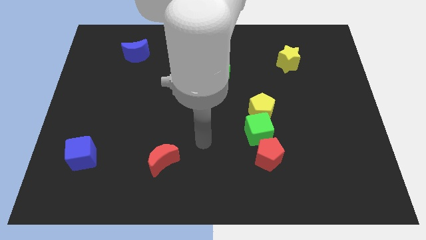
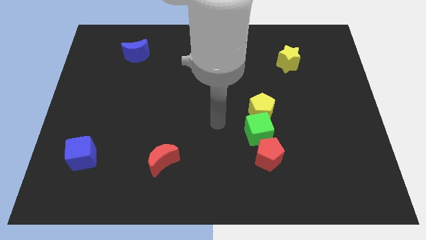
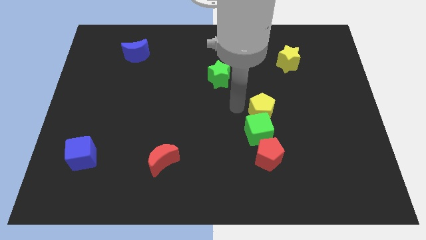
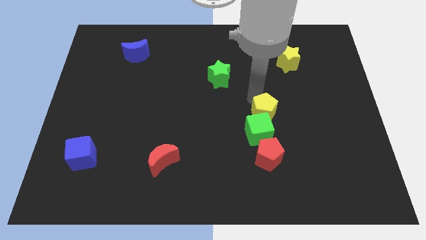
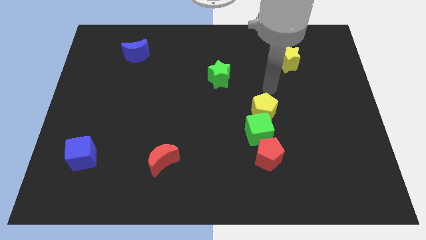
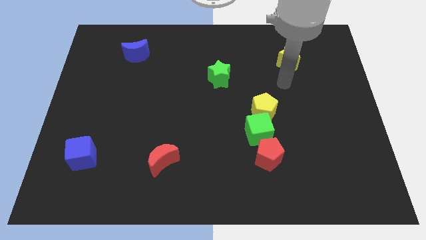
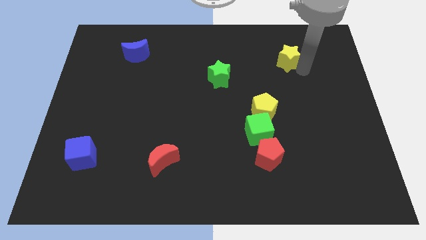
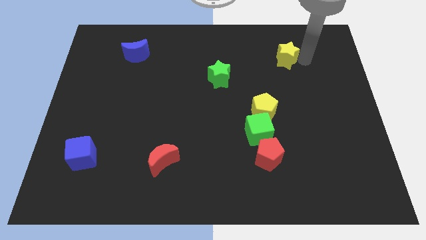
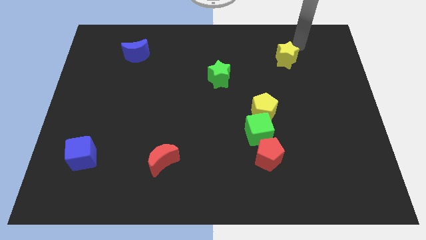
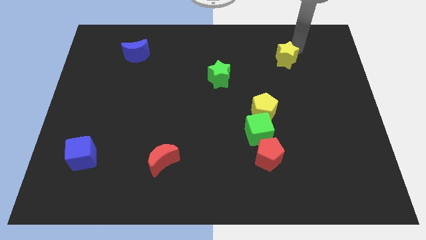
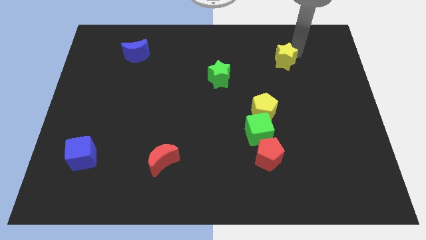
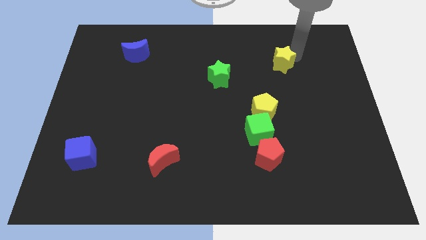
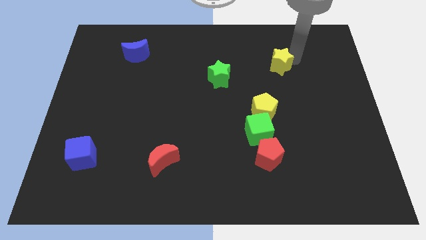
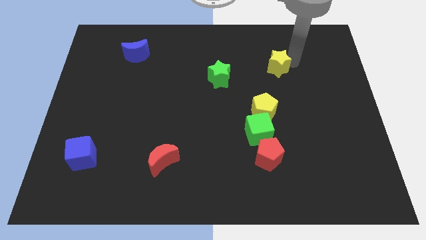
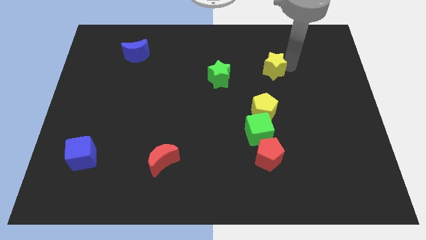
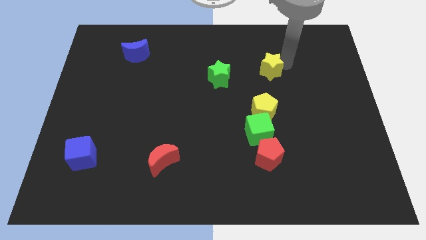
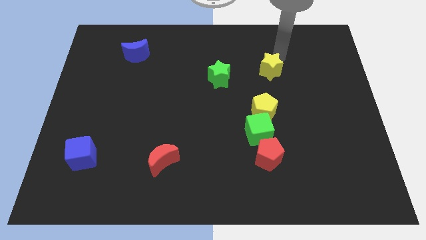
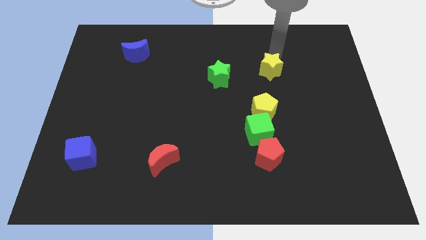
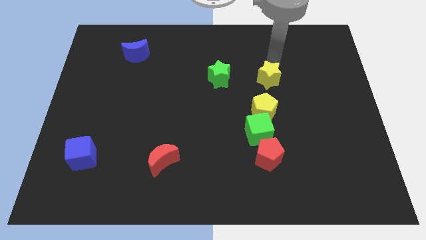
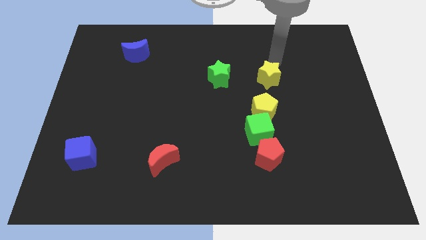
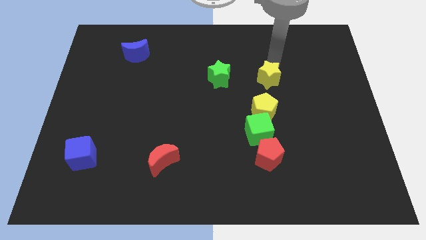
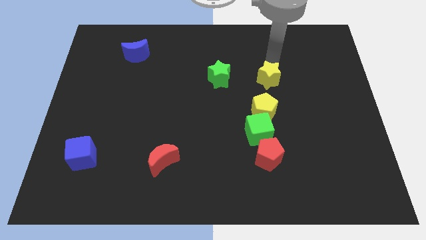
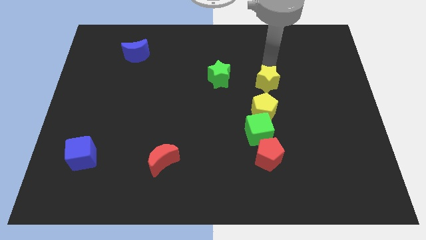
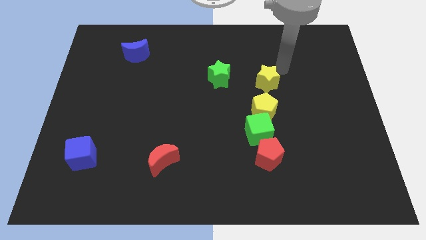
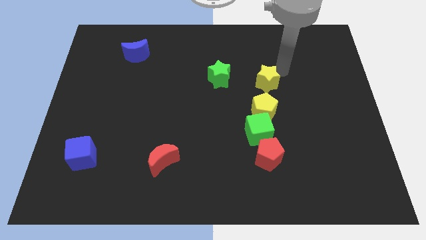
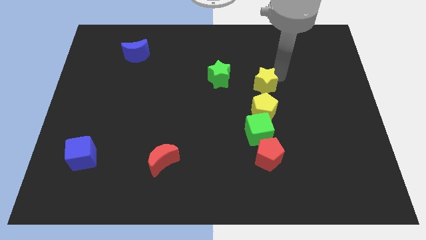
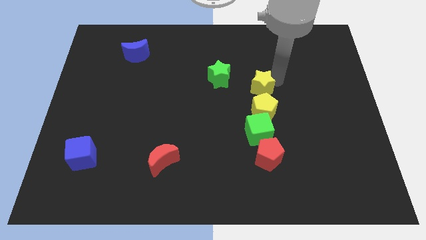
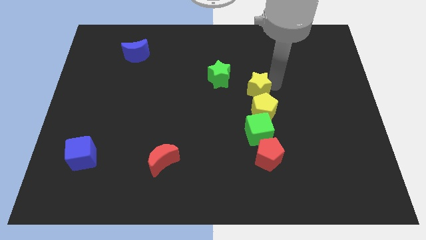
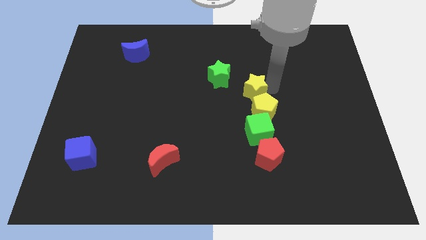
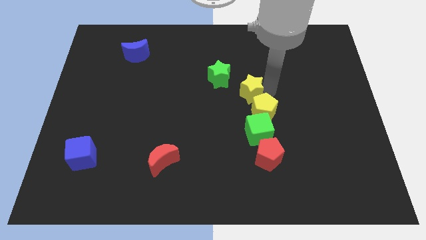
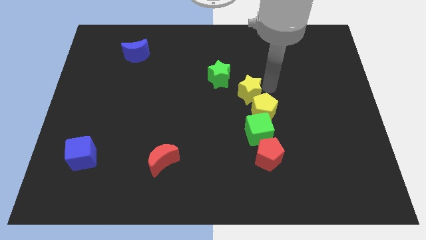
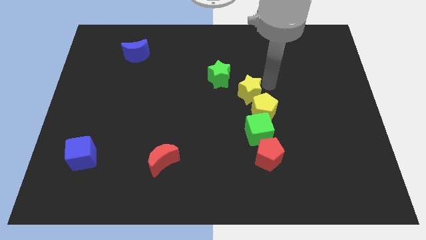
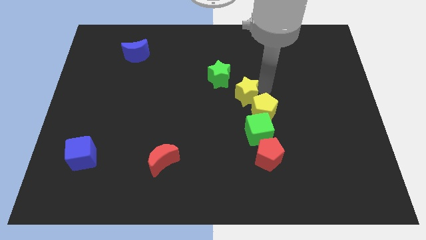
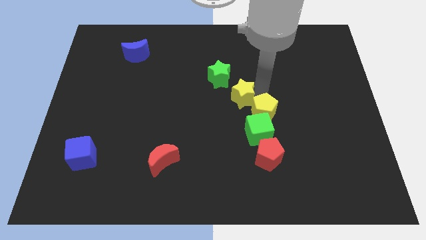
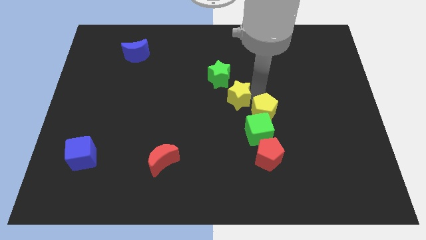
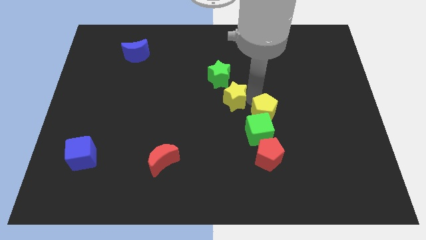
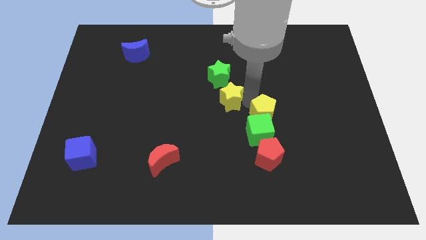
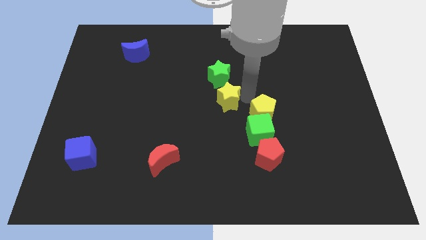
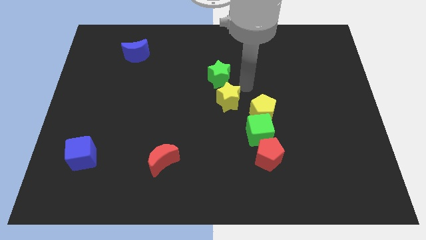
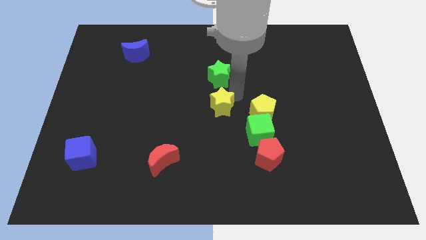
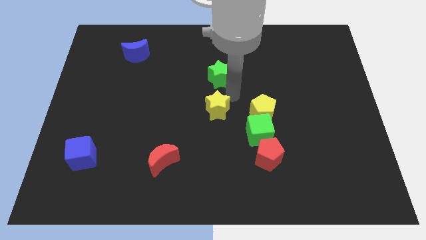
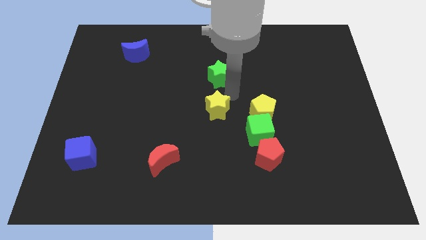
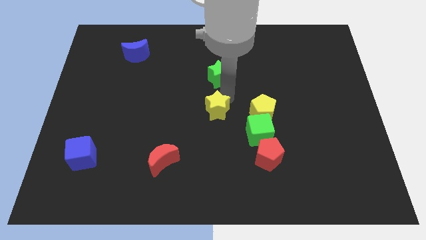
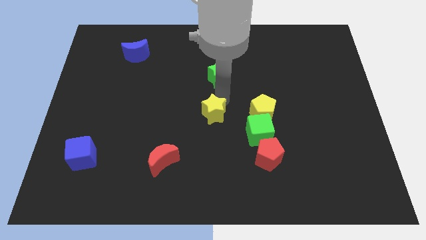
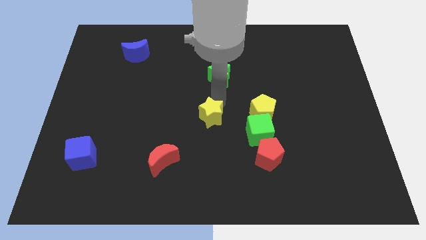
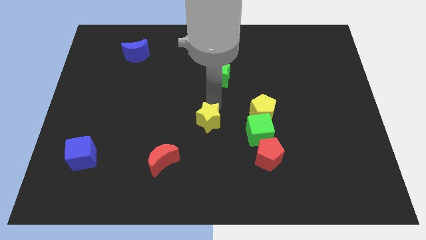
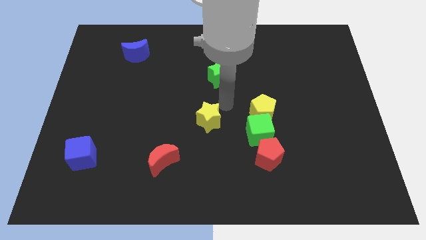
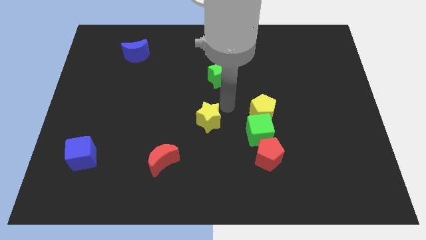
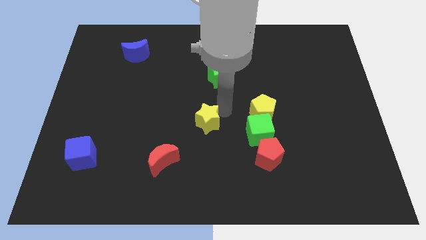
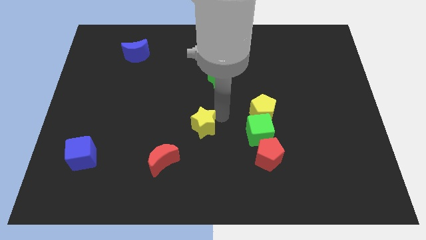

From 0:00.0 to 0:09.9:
push the yellow star diagonally up and to the right of the red moon

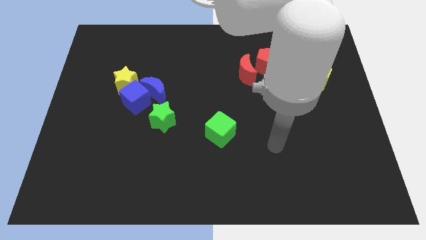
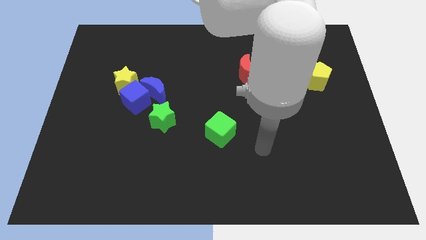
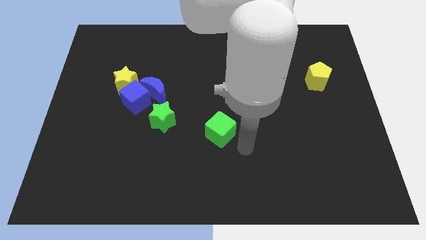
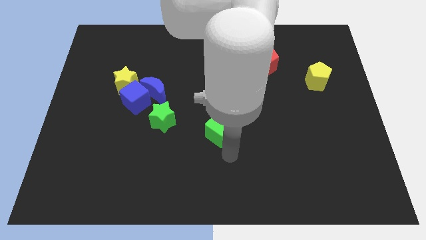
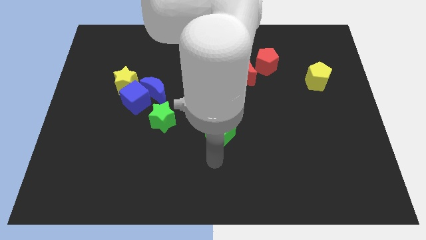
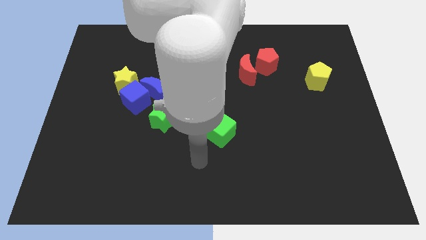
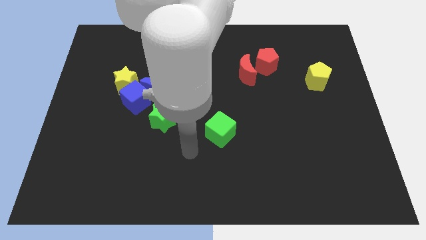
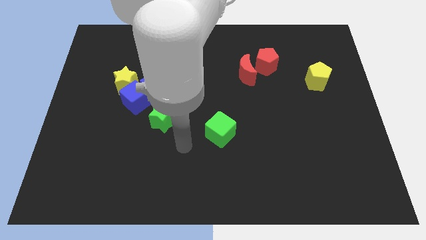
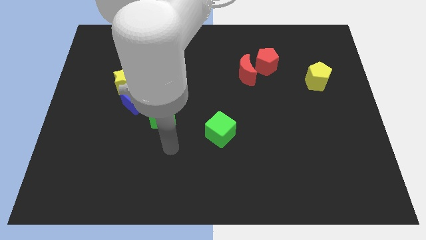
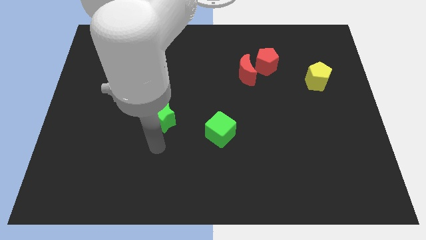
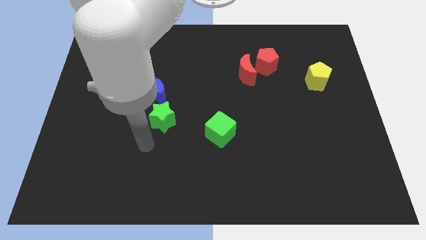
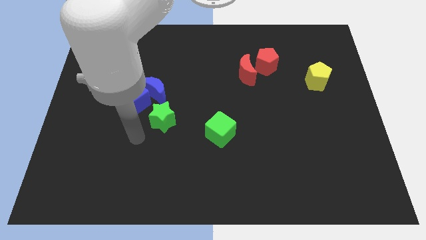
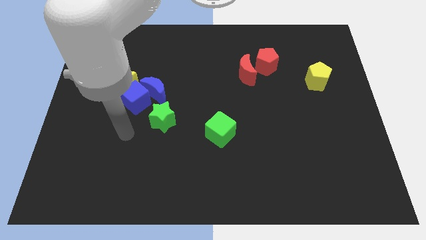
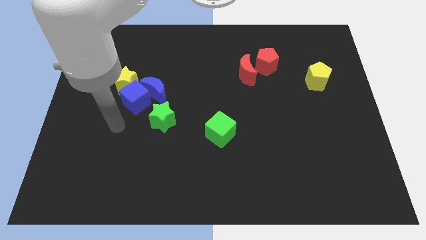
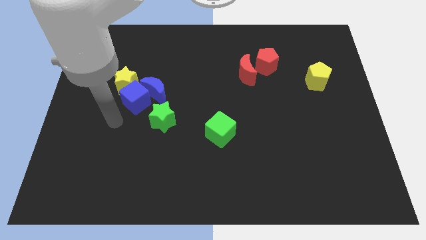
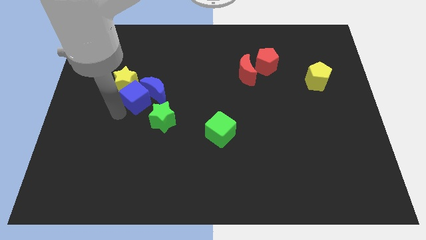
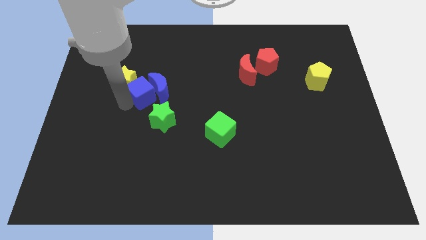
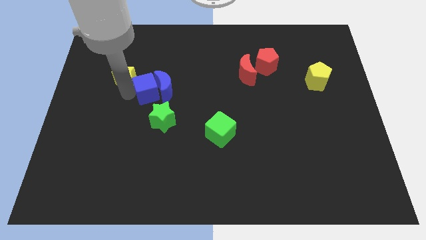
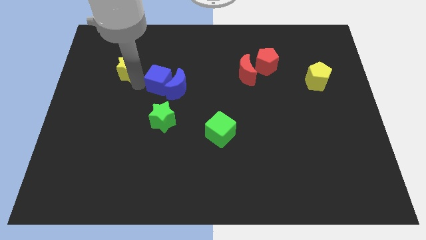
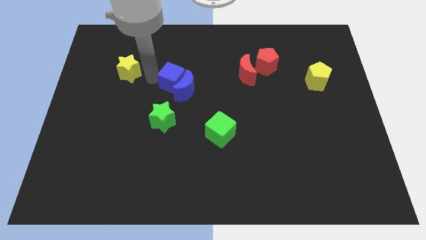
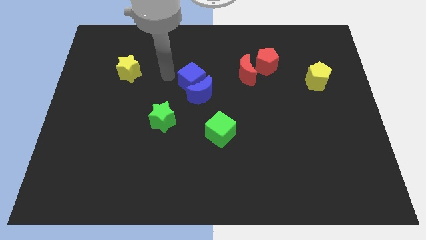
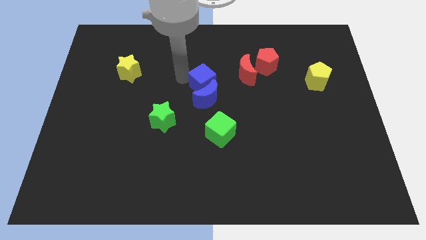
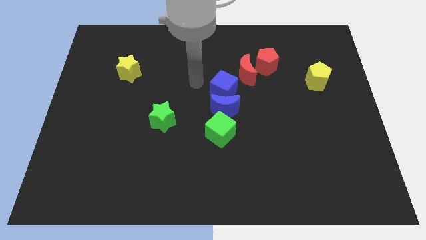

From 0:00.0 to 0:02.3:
move the blue moon right of the green star
